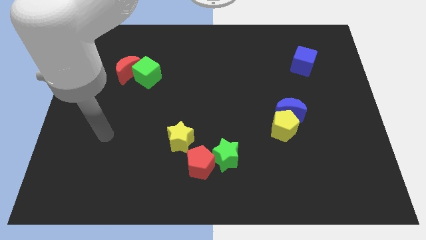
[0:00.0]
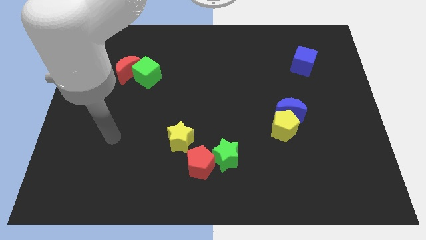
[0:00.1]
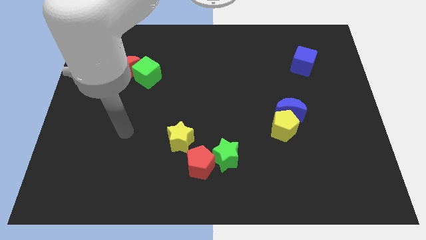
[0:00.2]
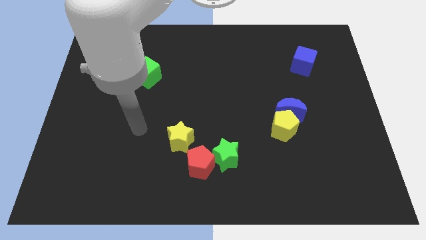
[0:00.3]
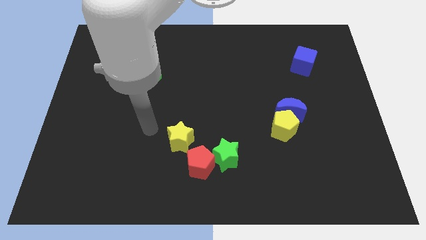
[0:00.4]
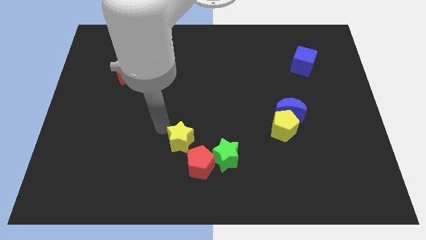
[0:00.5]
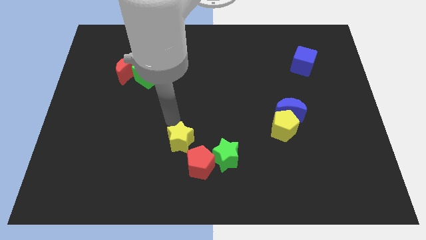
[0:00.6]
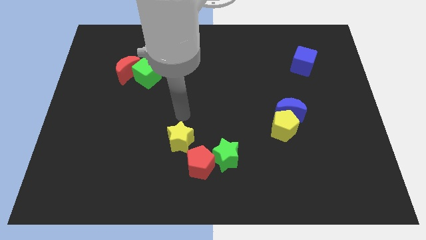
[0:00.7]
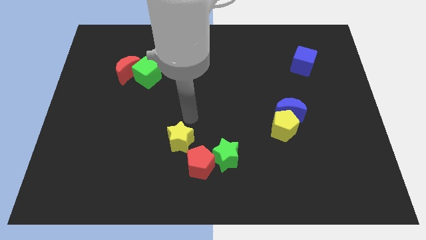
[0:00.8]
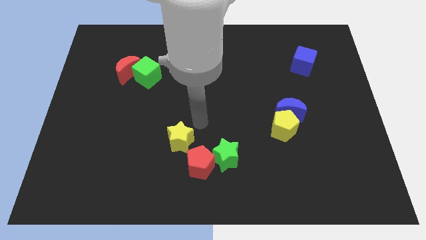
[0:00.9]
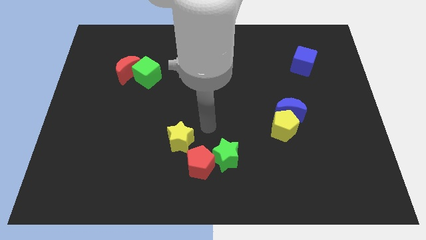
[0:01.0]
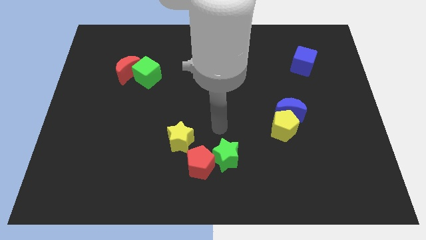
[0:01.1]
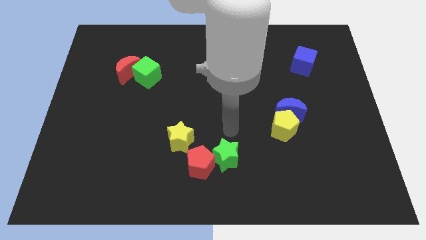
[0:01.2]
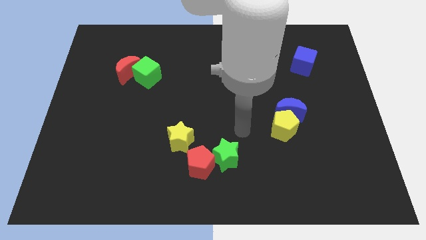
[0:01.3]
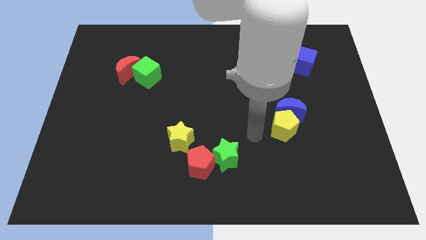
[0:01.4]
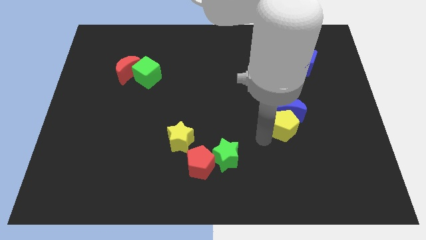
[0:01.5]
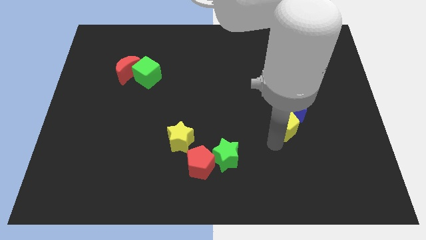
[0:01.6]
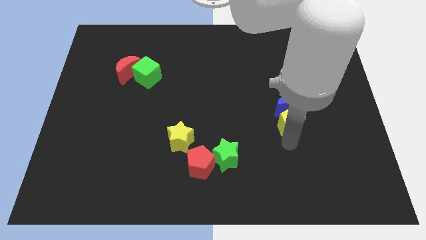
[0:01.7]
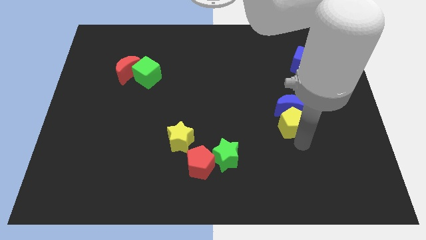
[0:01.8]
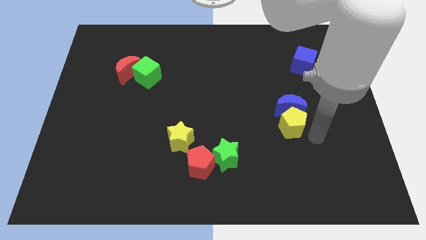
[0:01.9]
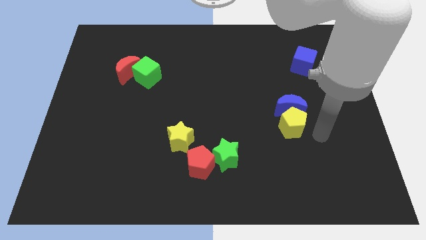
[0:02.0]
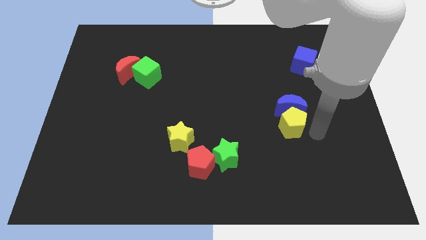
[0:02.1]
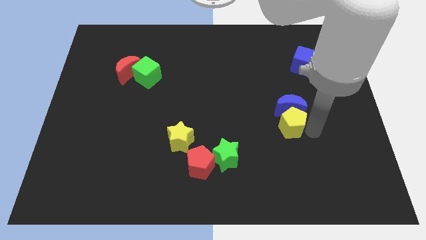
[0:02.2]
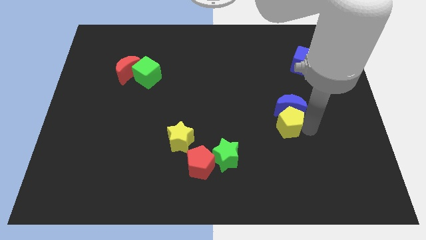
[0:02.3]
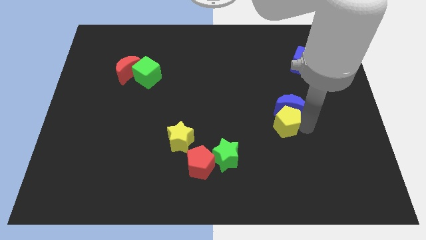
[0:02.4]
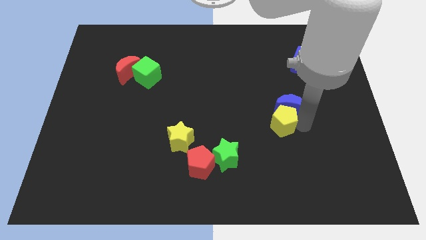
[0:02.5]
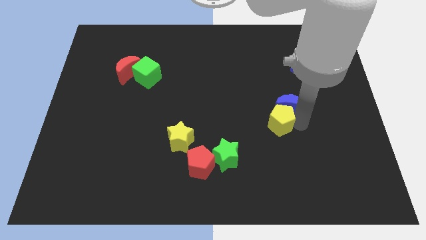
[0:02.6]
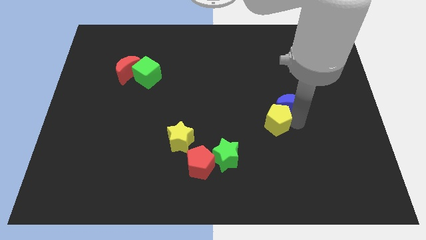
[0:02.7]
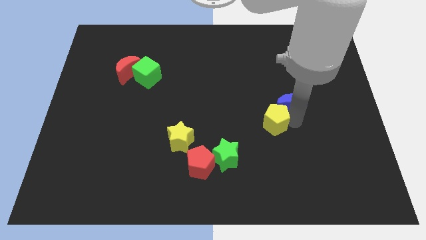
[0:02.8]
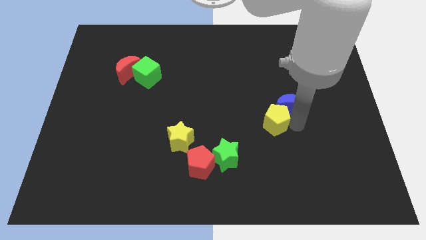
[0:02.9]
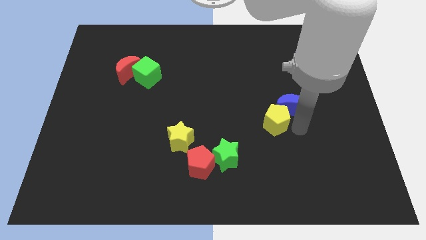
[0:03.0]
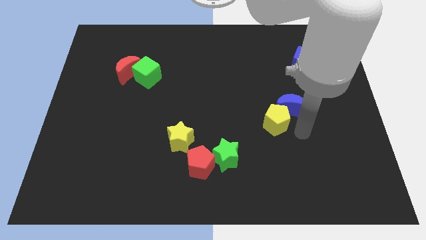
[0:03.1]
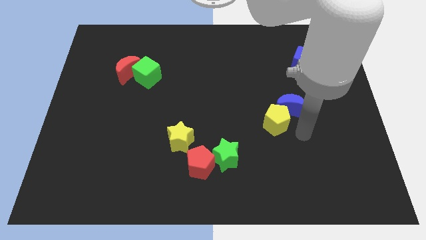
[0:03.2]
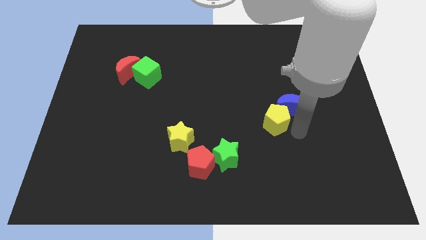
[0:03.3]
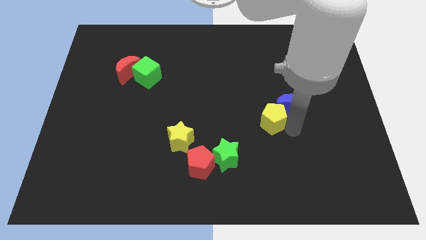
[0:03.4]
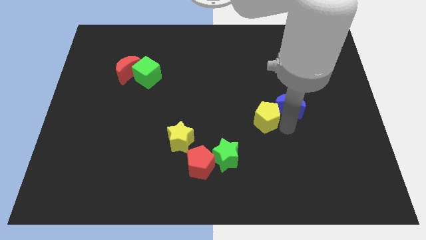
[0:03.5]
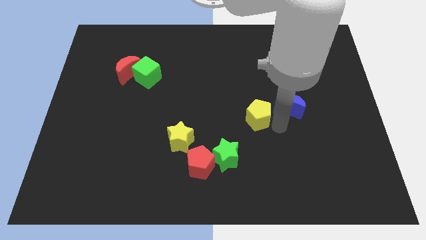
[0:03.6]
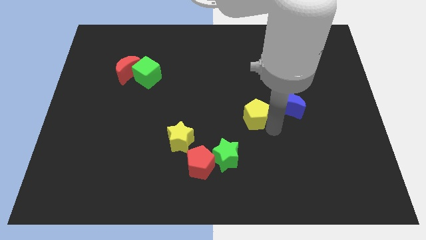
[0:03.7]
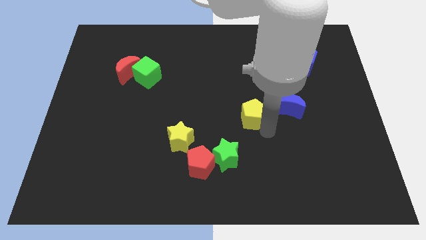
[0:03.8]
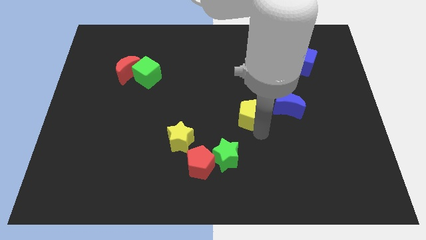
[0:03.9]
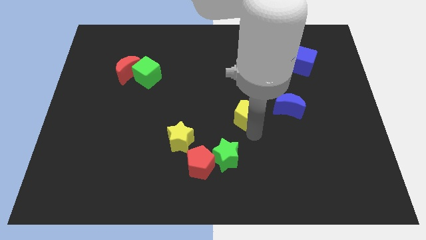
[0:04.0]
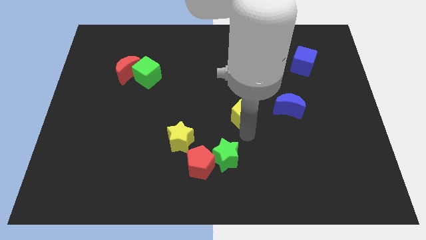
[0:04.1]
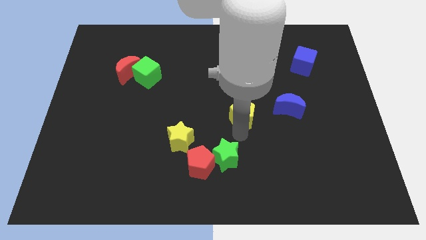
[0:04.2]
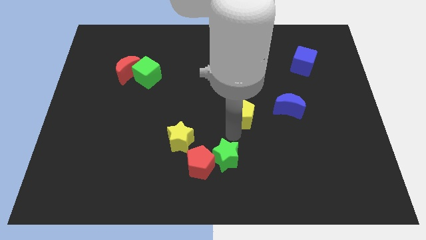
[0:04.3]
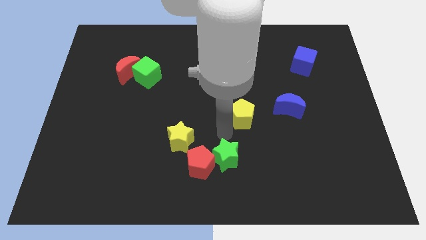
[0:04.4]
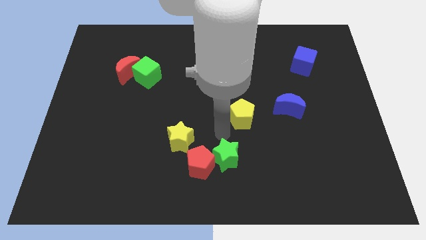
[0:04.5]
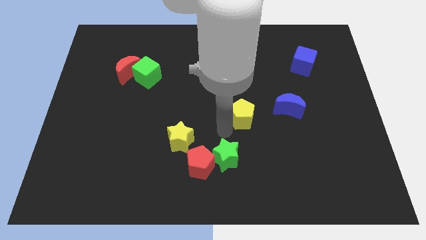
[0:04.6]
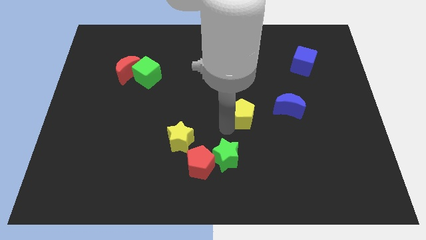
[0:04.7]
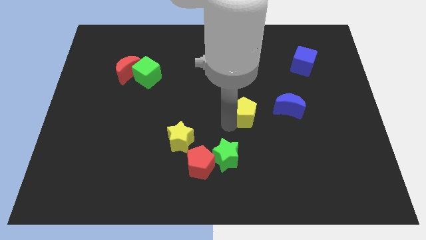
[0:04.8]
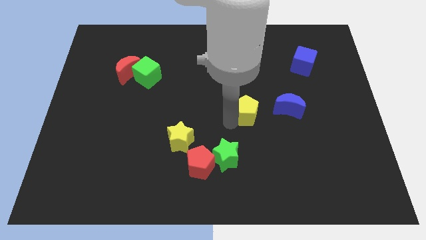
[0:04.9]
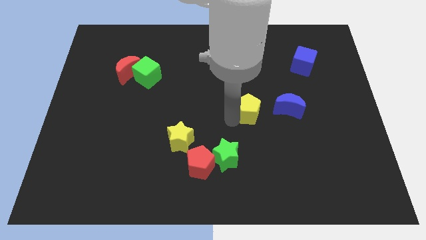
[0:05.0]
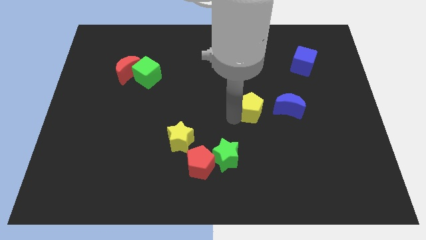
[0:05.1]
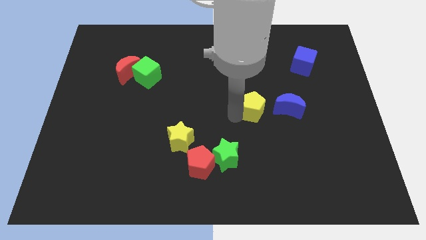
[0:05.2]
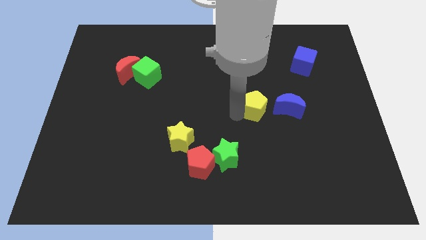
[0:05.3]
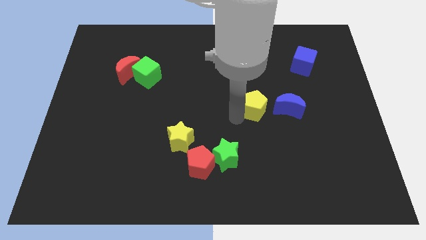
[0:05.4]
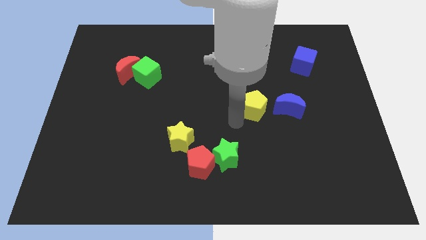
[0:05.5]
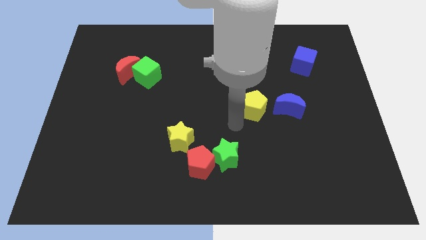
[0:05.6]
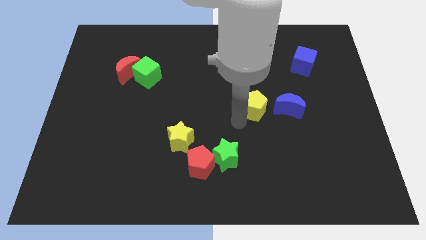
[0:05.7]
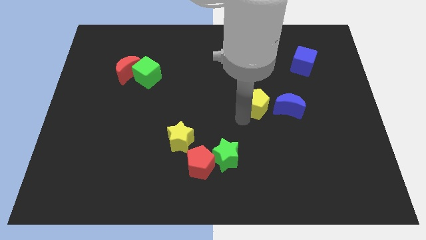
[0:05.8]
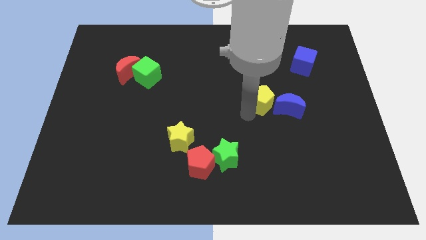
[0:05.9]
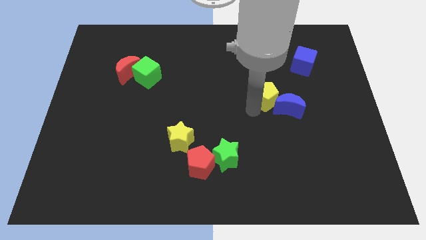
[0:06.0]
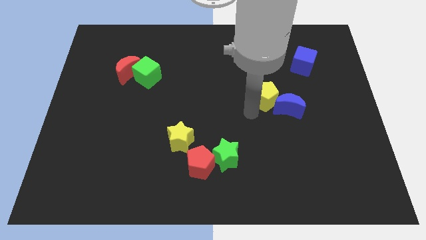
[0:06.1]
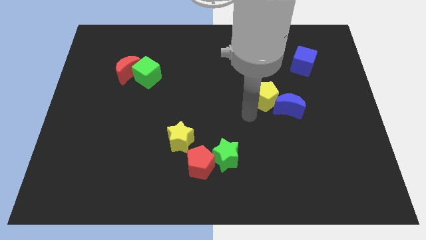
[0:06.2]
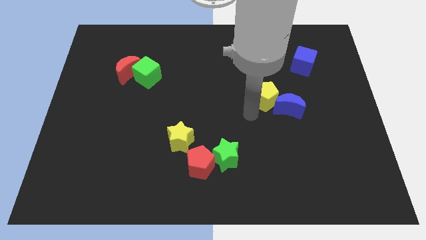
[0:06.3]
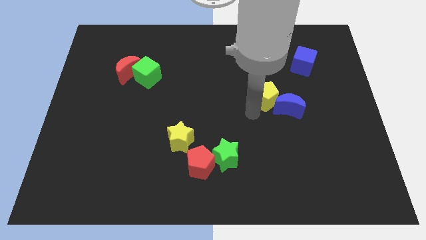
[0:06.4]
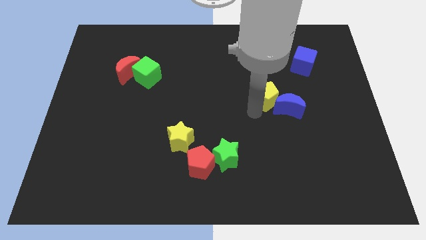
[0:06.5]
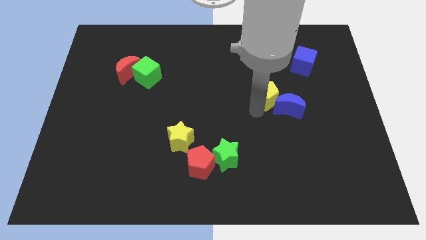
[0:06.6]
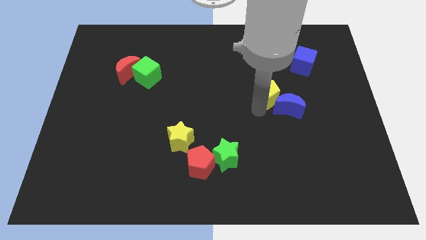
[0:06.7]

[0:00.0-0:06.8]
put the yellow pentagon to the top of the blue moon

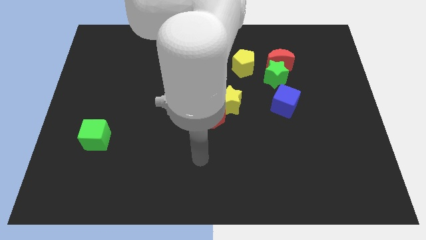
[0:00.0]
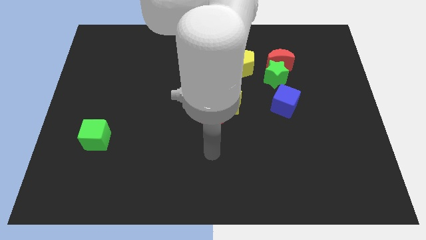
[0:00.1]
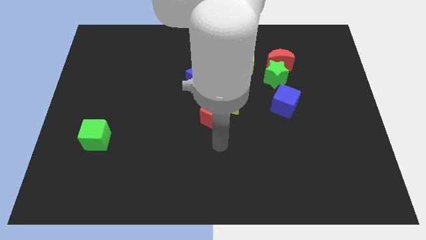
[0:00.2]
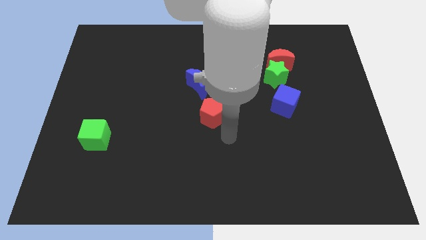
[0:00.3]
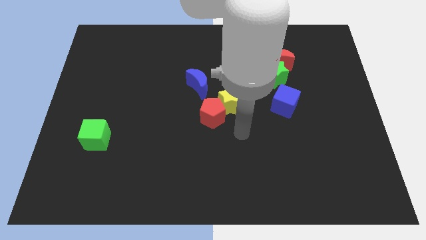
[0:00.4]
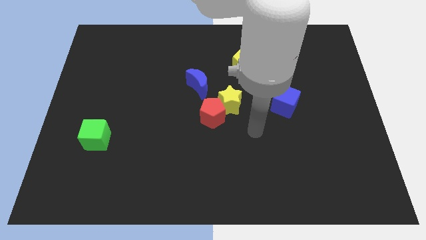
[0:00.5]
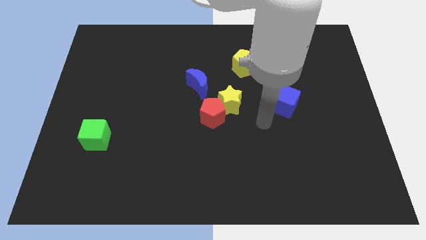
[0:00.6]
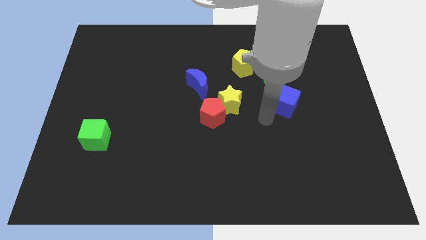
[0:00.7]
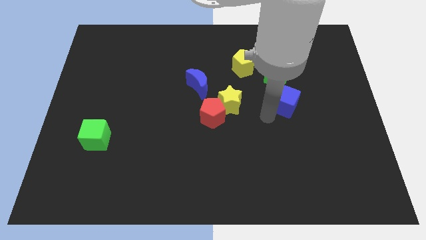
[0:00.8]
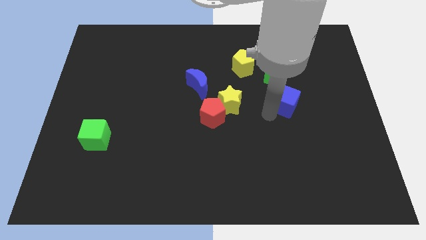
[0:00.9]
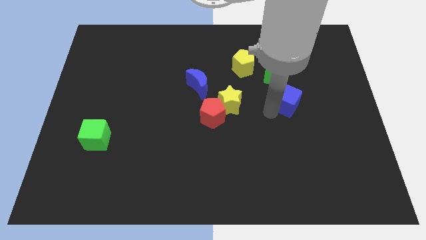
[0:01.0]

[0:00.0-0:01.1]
put the blue cube to the bottom right side of the green star
